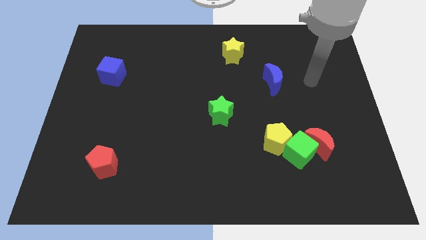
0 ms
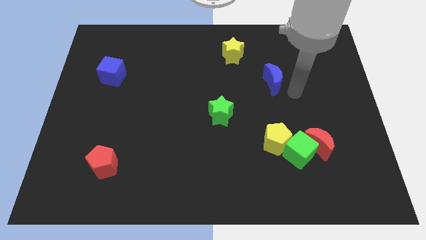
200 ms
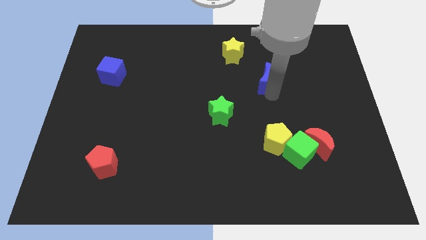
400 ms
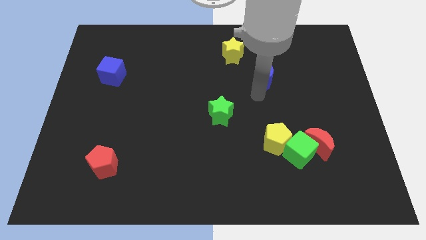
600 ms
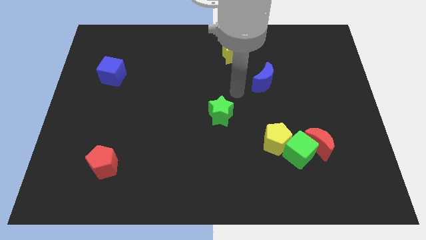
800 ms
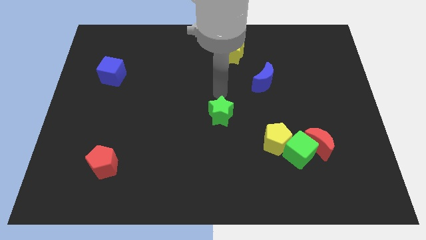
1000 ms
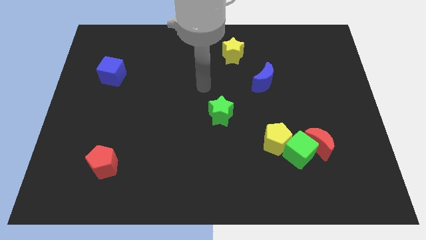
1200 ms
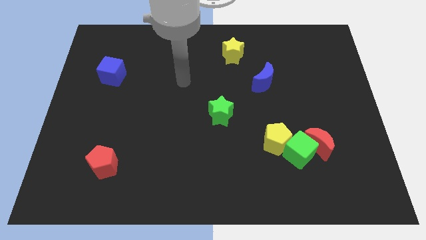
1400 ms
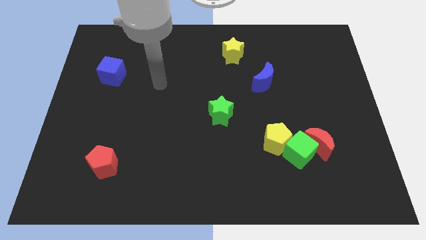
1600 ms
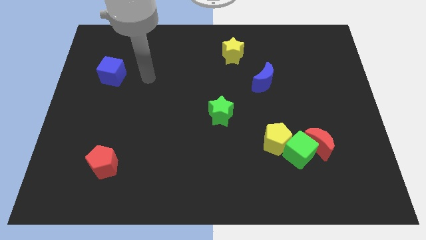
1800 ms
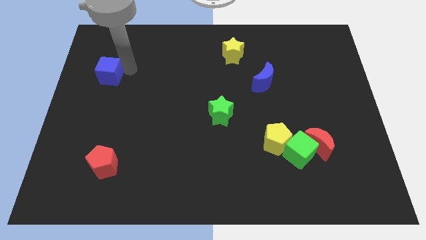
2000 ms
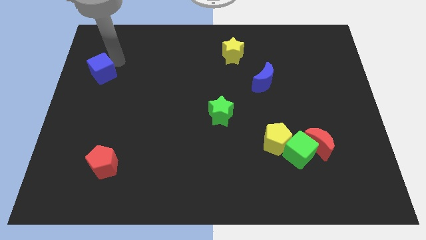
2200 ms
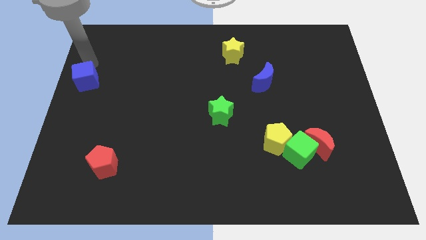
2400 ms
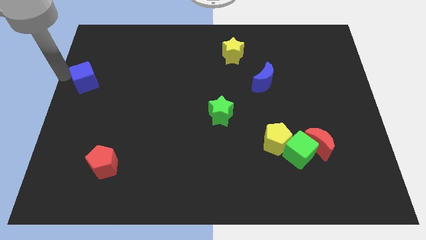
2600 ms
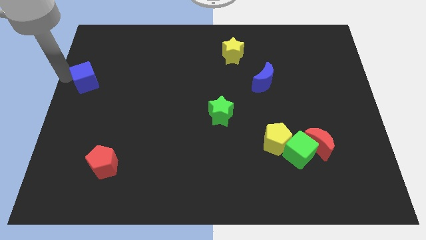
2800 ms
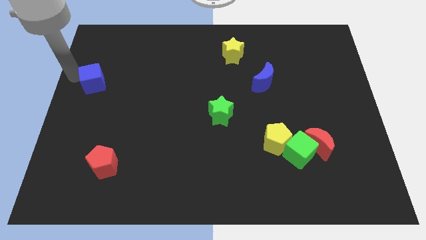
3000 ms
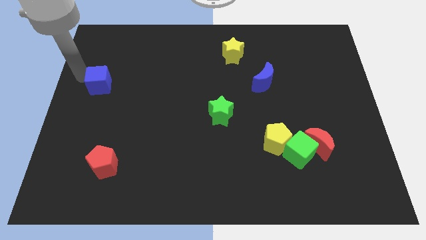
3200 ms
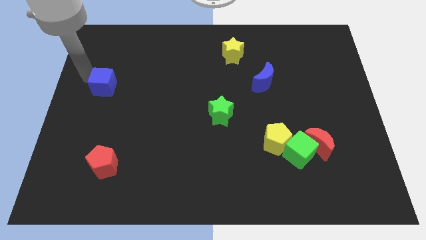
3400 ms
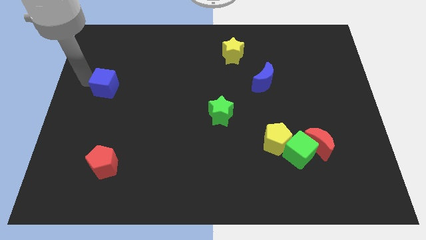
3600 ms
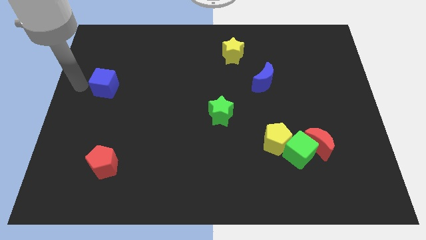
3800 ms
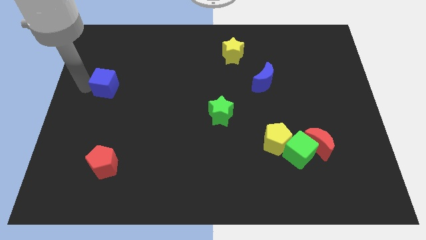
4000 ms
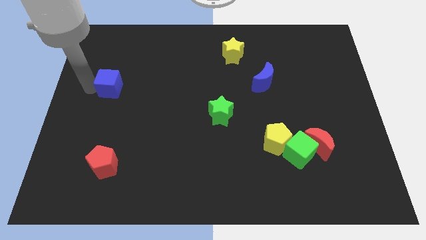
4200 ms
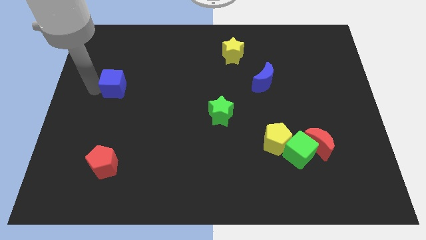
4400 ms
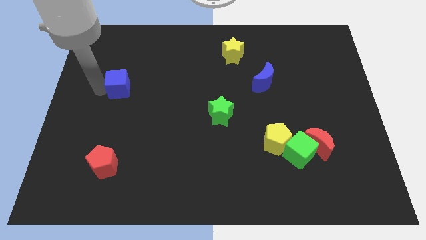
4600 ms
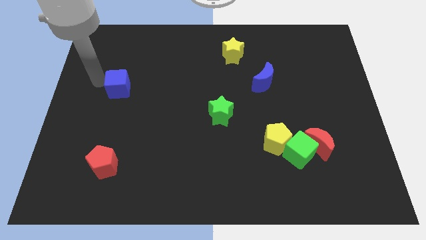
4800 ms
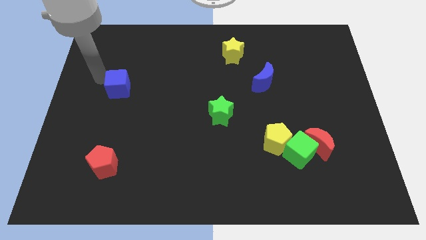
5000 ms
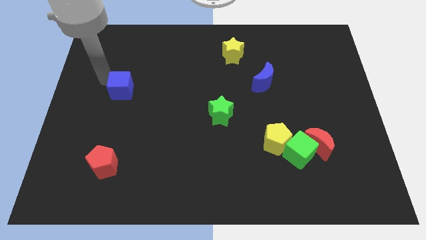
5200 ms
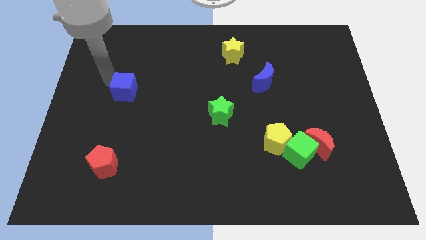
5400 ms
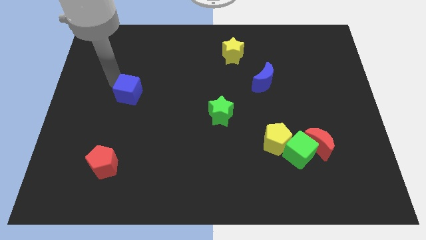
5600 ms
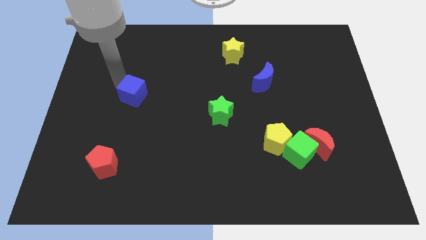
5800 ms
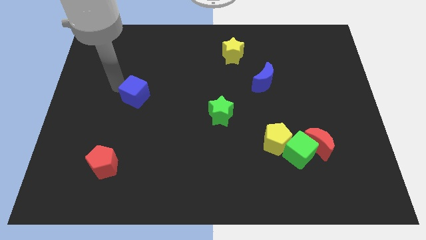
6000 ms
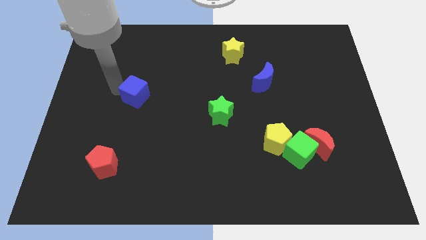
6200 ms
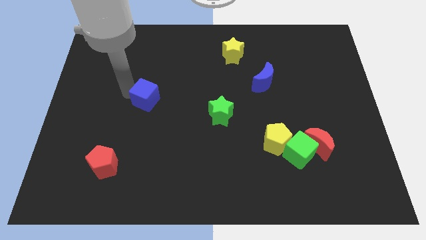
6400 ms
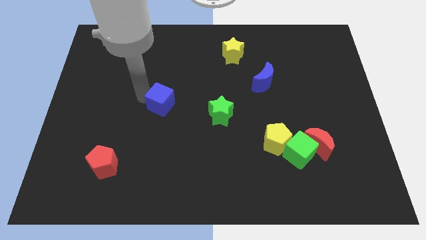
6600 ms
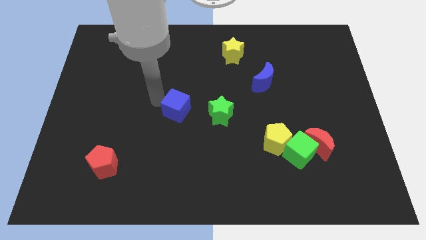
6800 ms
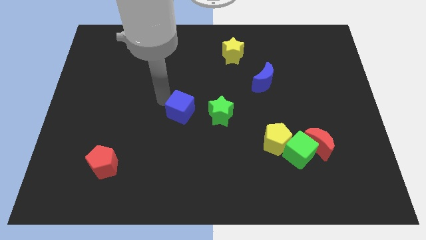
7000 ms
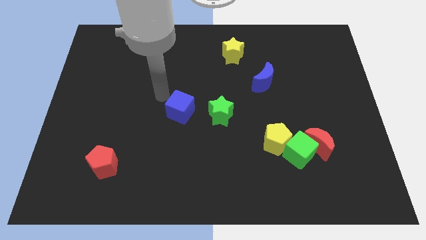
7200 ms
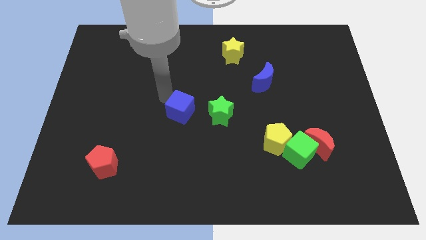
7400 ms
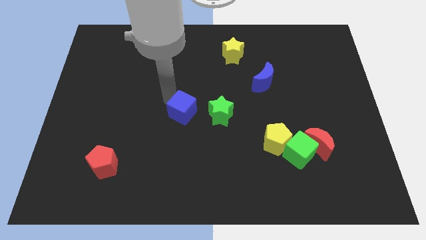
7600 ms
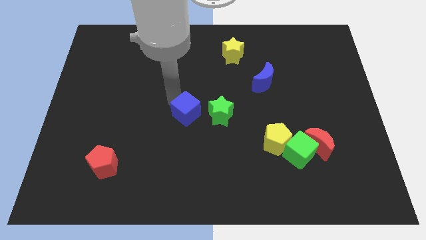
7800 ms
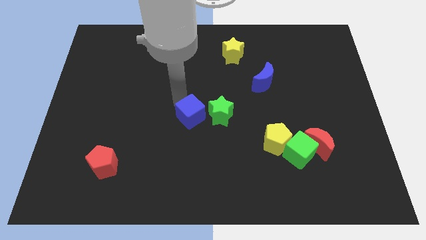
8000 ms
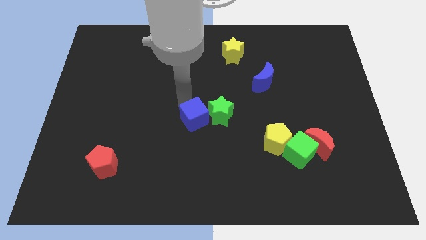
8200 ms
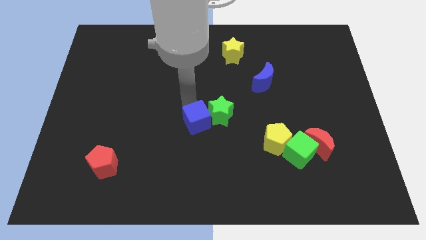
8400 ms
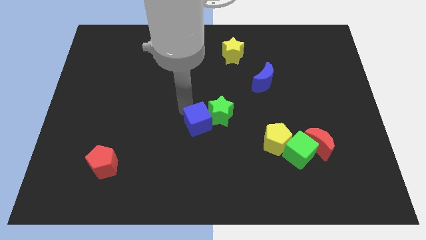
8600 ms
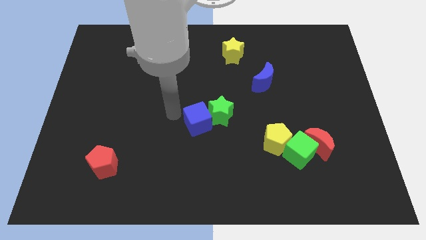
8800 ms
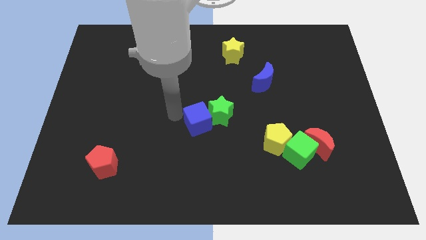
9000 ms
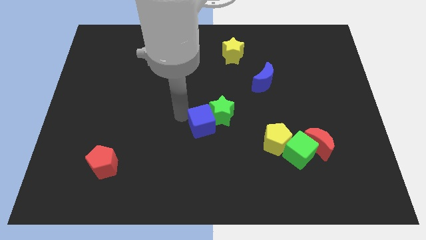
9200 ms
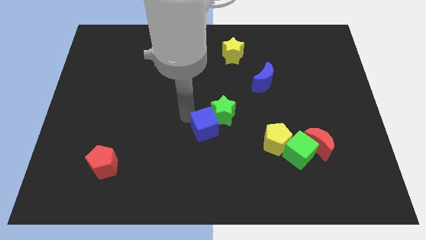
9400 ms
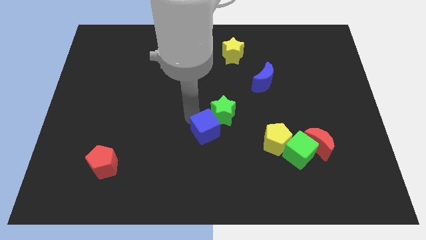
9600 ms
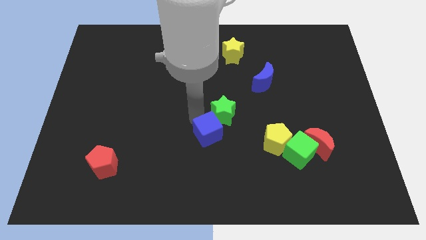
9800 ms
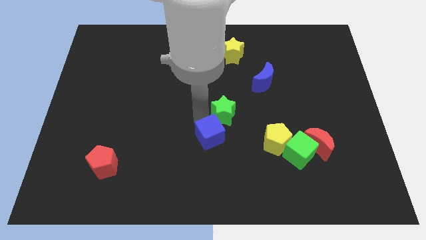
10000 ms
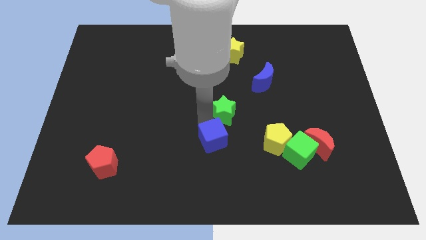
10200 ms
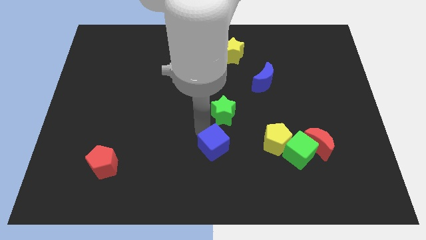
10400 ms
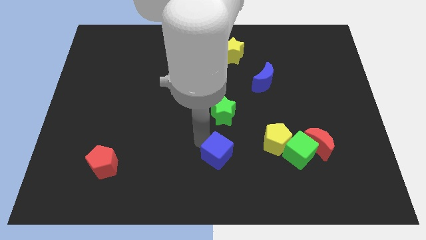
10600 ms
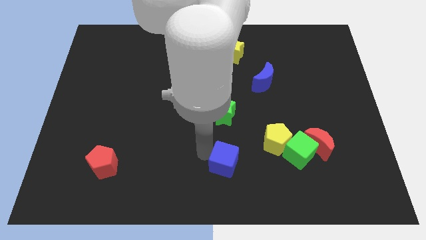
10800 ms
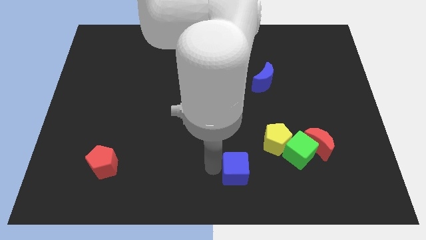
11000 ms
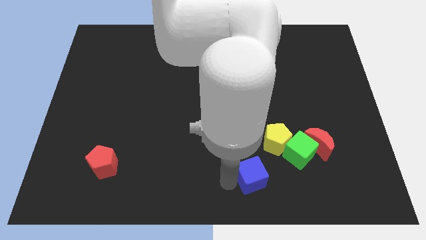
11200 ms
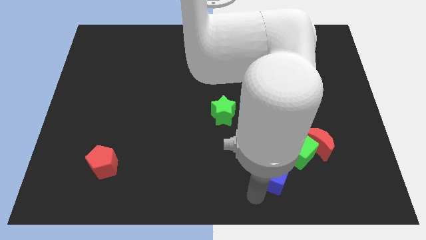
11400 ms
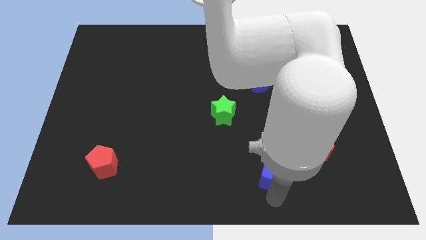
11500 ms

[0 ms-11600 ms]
slide the blue cube to the bottom left of the red moon

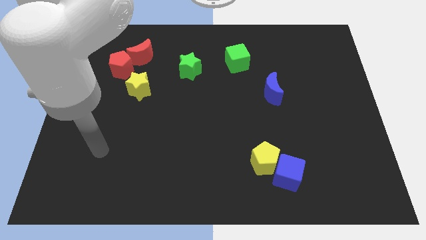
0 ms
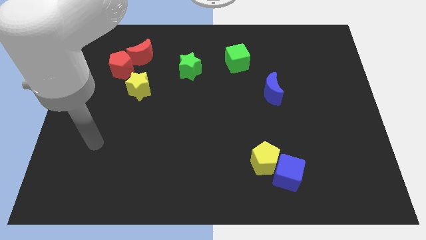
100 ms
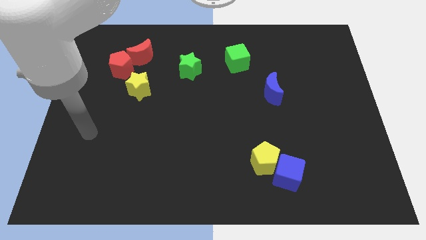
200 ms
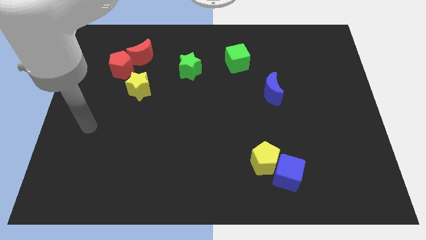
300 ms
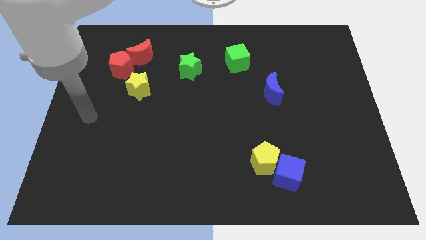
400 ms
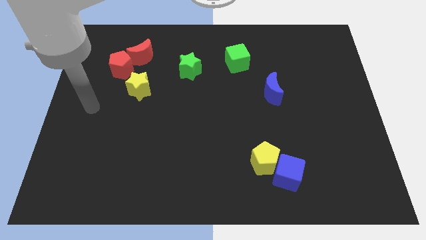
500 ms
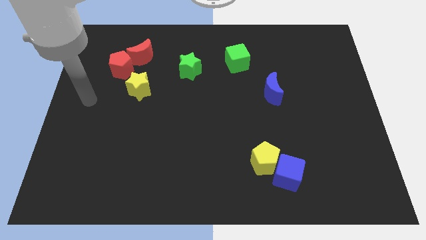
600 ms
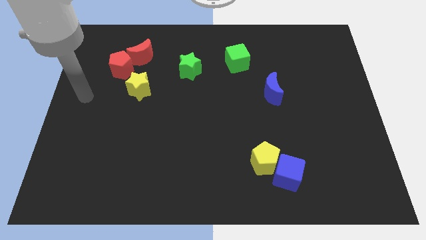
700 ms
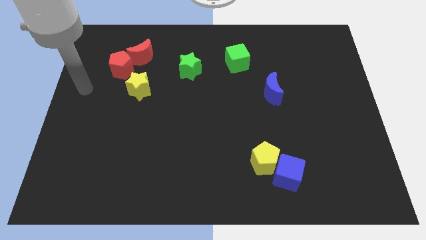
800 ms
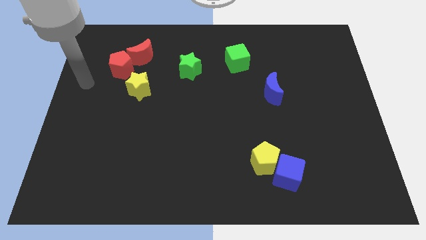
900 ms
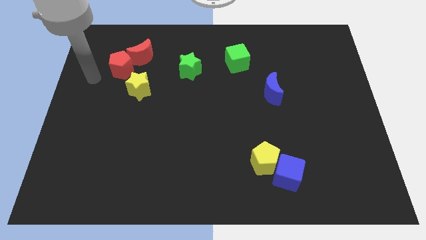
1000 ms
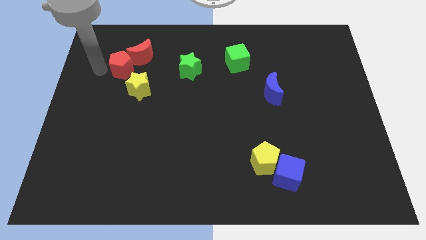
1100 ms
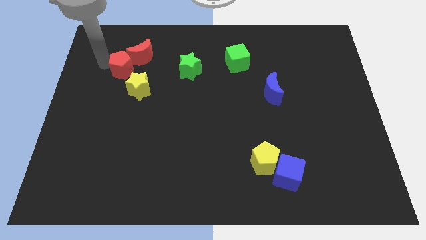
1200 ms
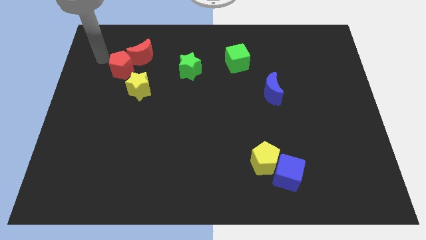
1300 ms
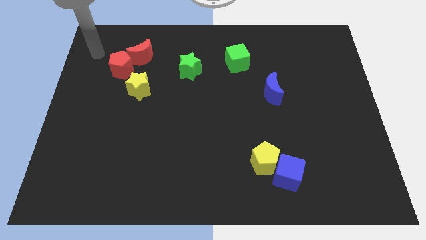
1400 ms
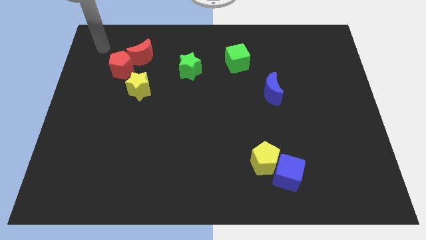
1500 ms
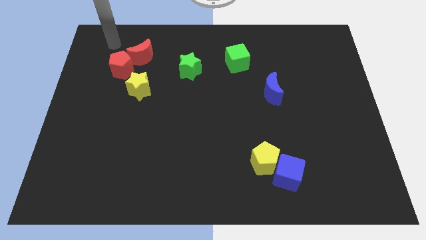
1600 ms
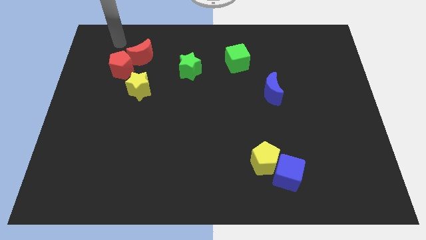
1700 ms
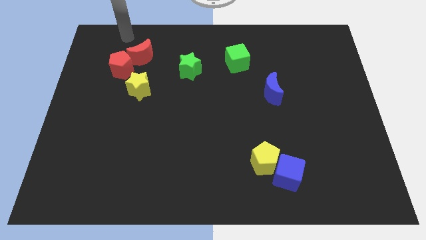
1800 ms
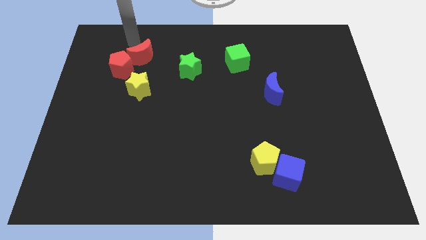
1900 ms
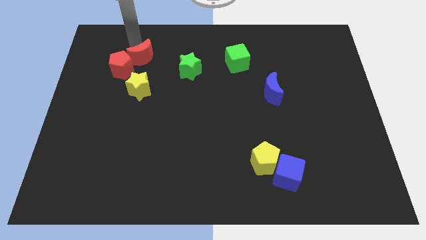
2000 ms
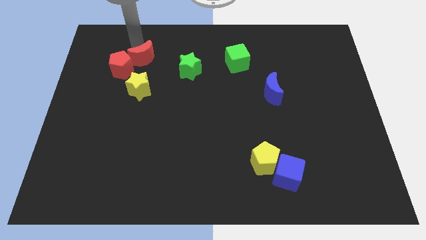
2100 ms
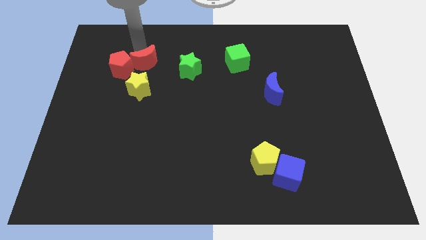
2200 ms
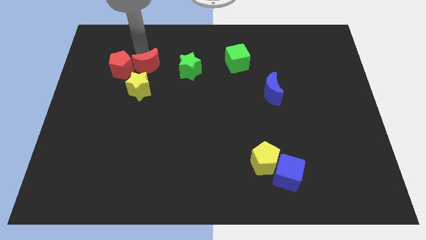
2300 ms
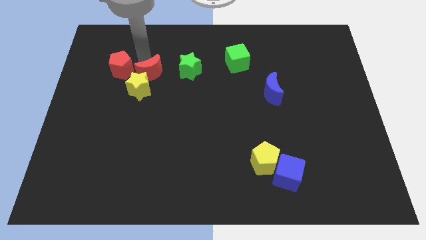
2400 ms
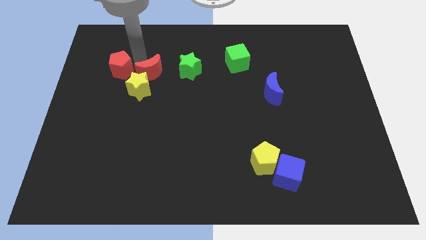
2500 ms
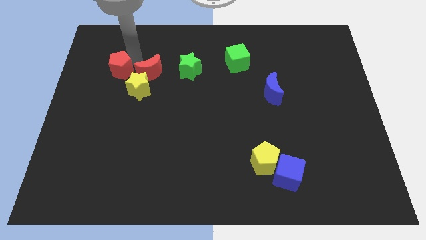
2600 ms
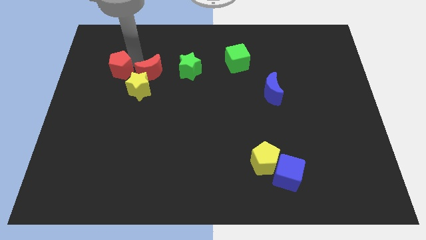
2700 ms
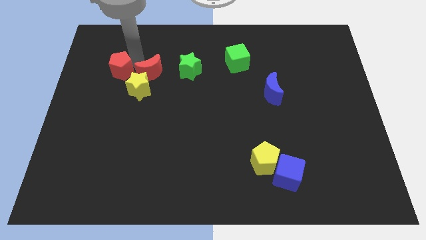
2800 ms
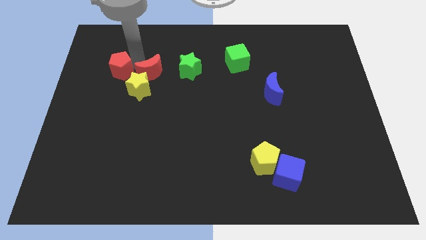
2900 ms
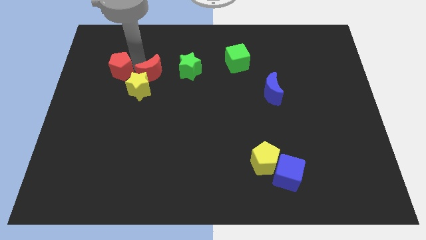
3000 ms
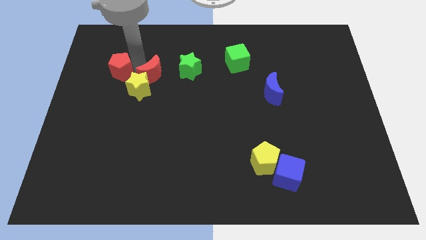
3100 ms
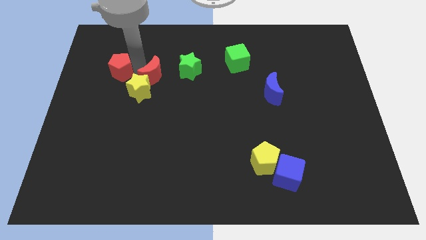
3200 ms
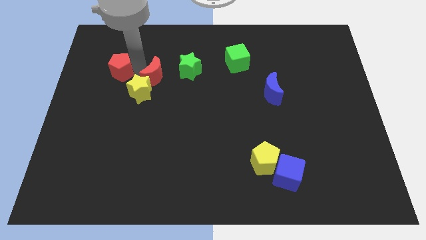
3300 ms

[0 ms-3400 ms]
put the red moon diagonally down and to the left of the green star
